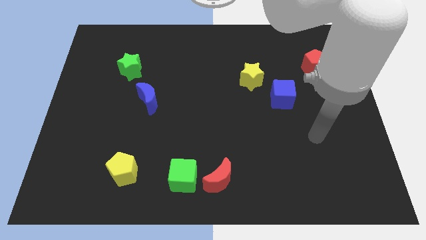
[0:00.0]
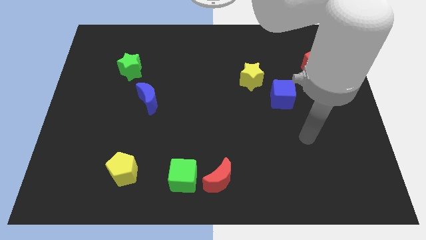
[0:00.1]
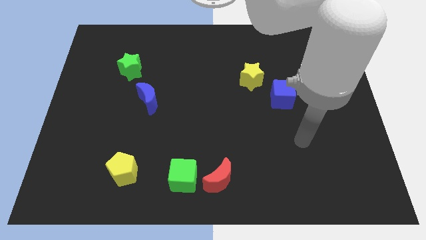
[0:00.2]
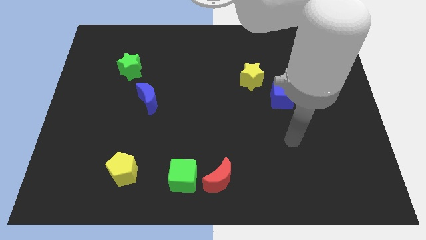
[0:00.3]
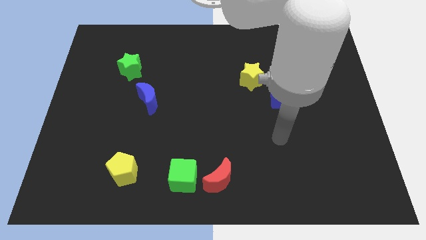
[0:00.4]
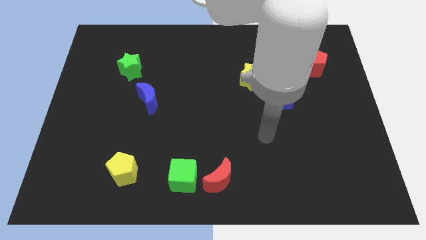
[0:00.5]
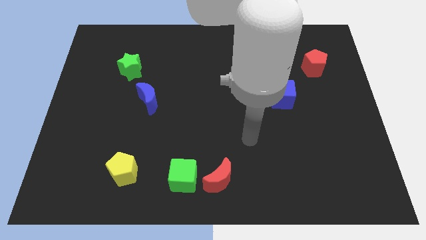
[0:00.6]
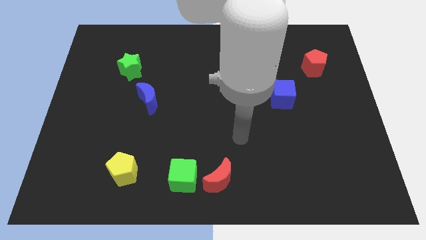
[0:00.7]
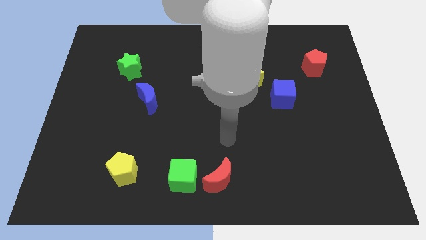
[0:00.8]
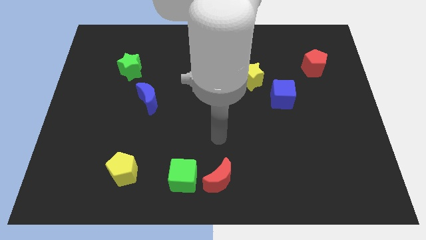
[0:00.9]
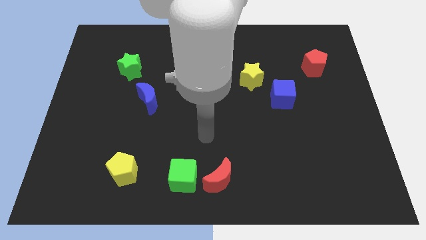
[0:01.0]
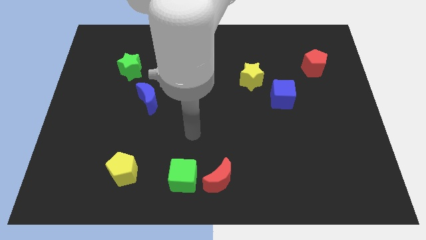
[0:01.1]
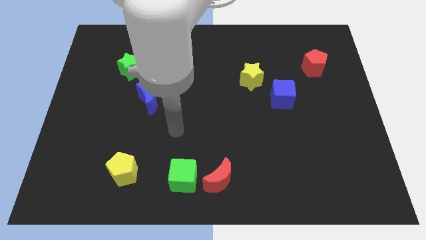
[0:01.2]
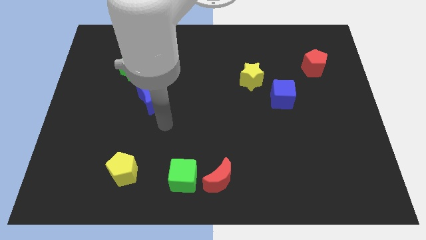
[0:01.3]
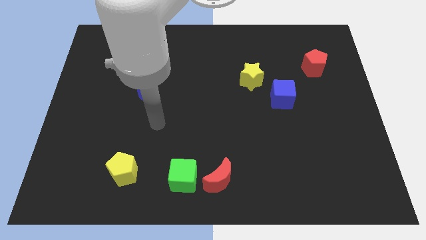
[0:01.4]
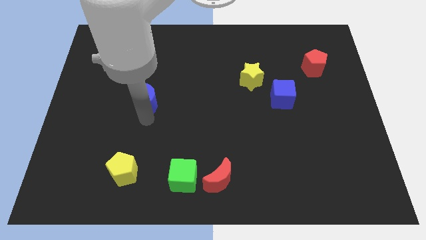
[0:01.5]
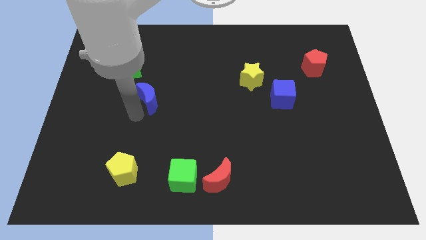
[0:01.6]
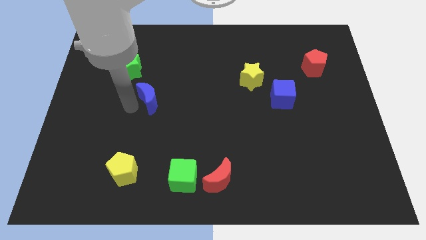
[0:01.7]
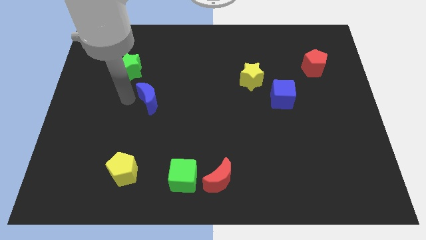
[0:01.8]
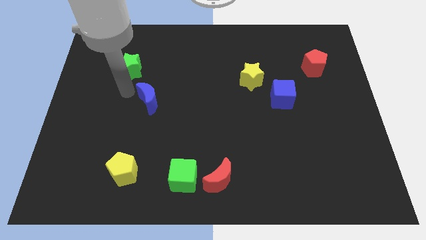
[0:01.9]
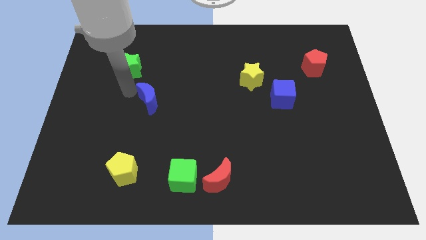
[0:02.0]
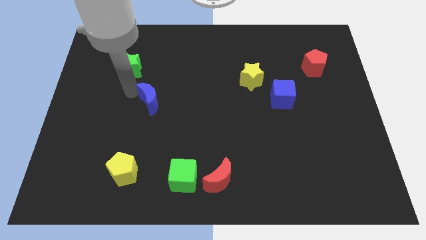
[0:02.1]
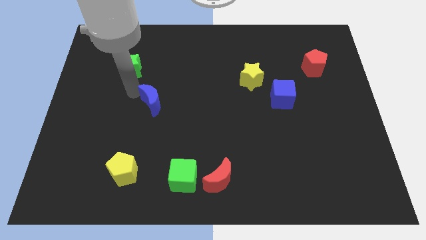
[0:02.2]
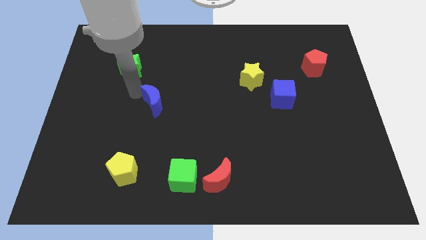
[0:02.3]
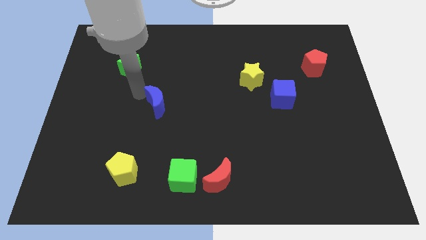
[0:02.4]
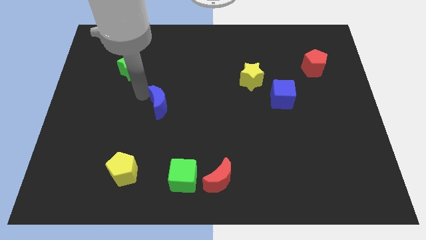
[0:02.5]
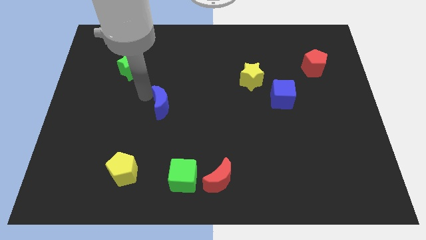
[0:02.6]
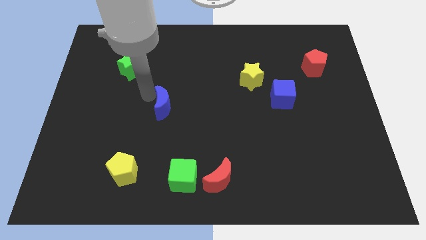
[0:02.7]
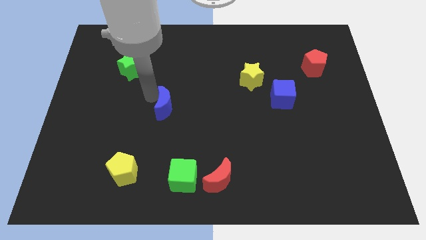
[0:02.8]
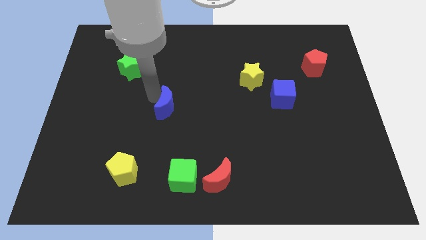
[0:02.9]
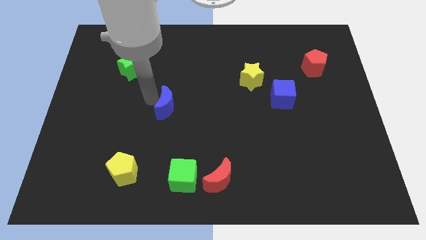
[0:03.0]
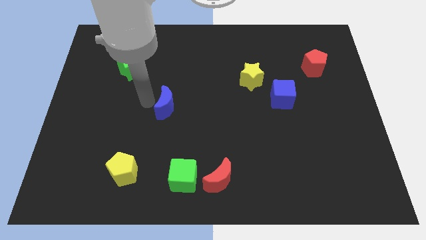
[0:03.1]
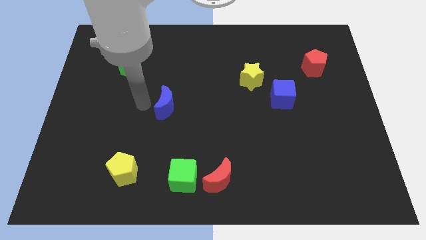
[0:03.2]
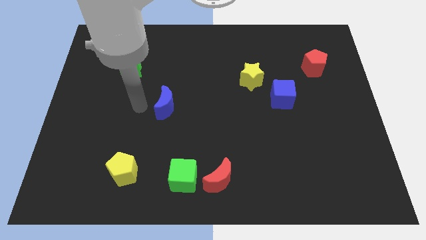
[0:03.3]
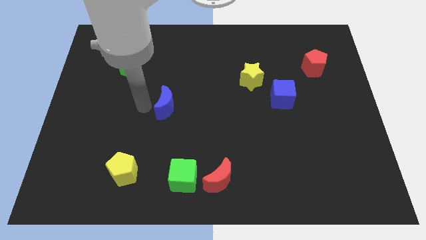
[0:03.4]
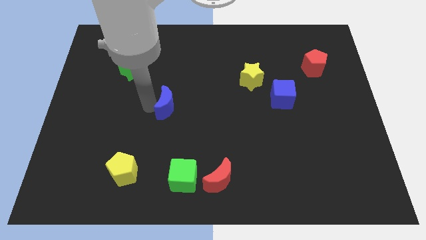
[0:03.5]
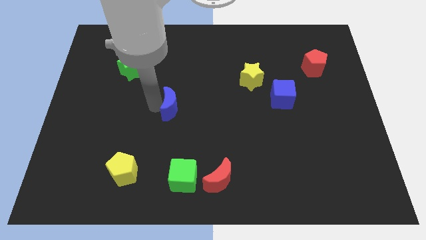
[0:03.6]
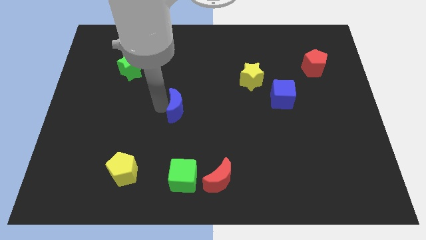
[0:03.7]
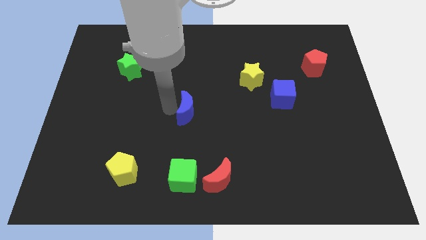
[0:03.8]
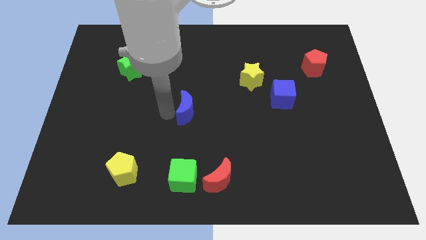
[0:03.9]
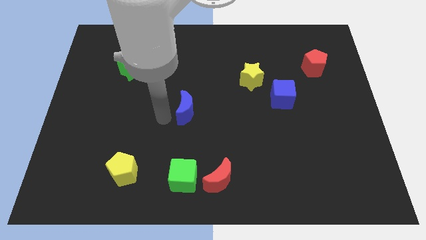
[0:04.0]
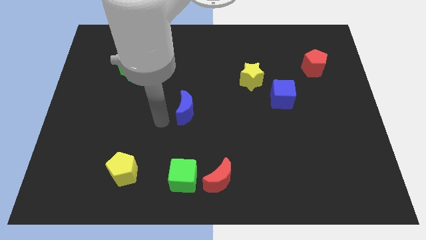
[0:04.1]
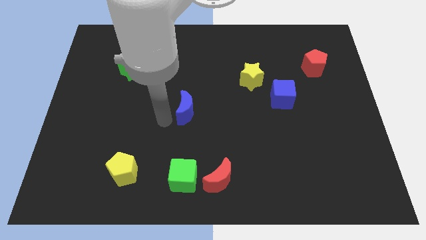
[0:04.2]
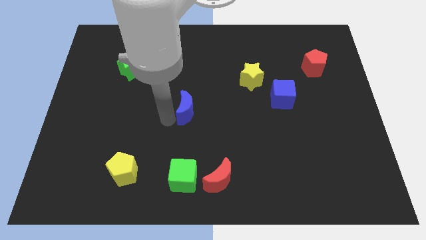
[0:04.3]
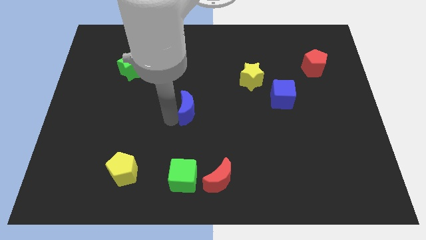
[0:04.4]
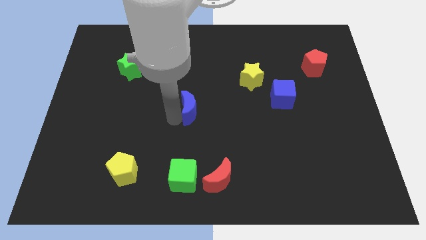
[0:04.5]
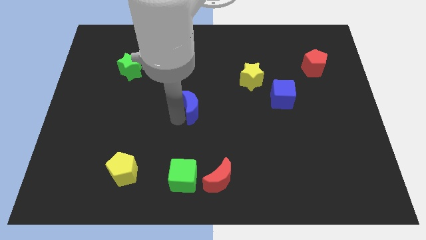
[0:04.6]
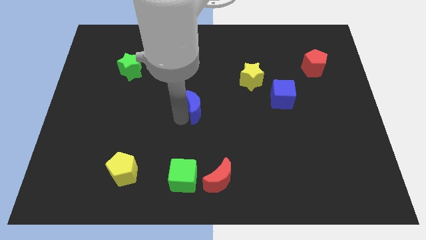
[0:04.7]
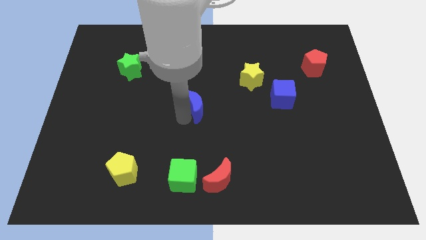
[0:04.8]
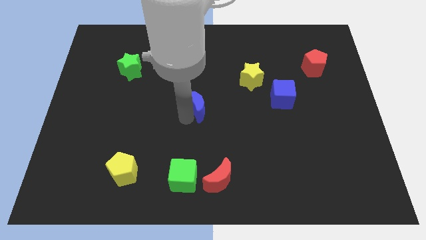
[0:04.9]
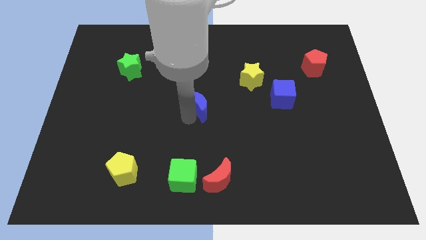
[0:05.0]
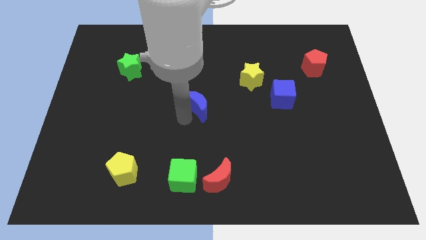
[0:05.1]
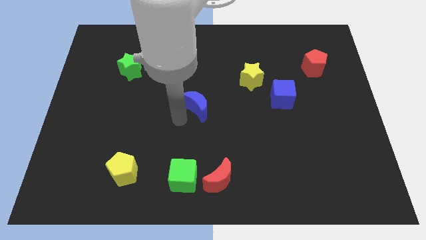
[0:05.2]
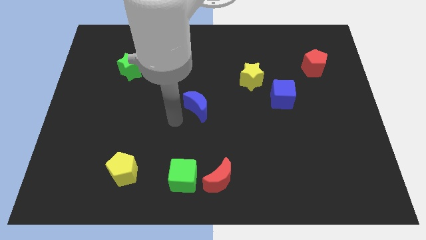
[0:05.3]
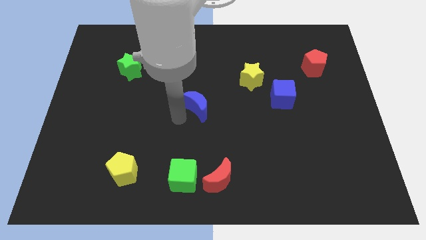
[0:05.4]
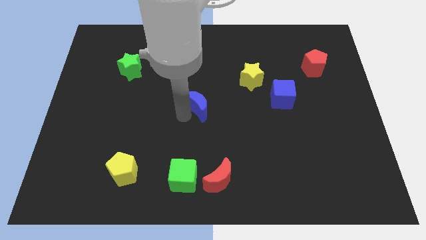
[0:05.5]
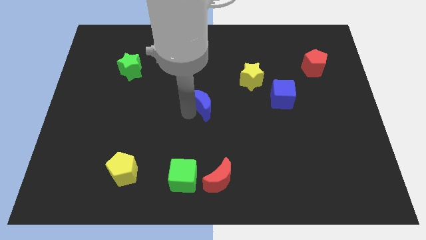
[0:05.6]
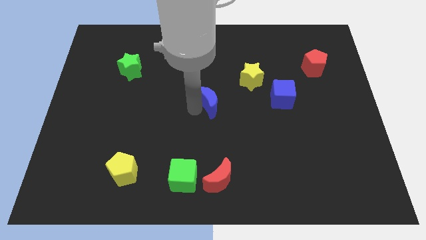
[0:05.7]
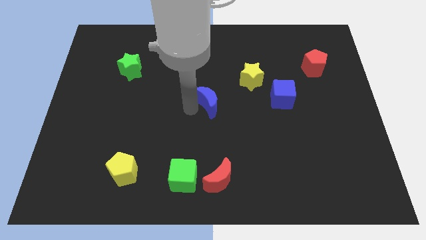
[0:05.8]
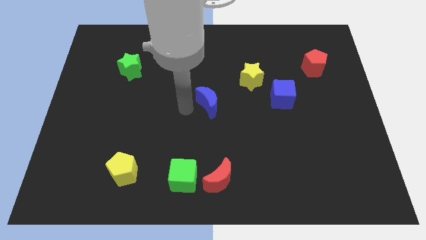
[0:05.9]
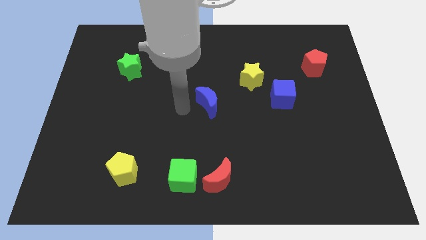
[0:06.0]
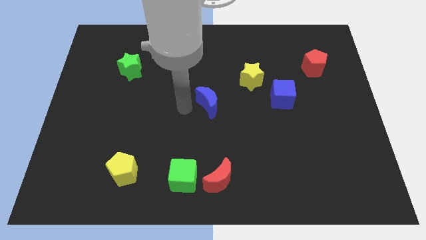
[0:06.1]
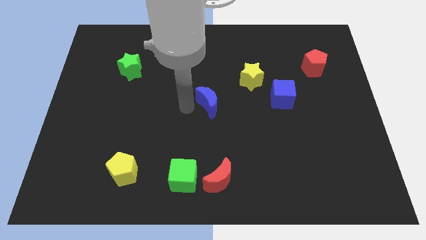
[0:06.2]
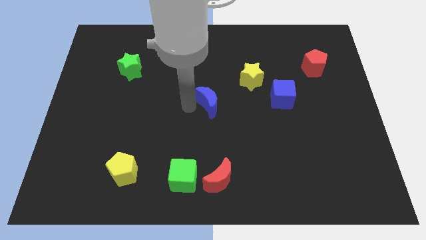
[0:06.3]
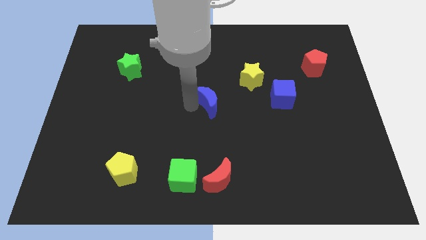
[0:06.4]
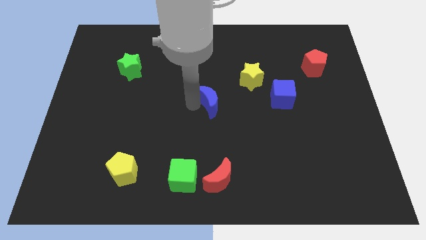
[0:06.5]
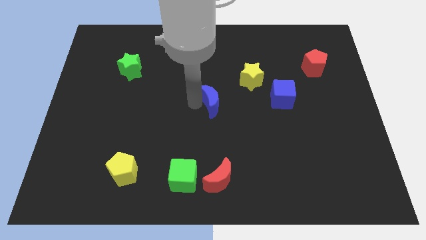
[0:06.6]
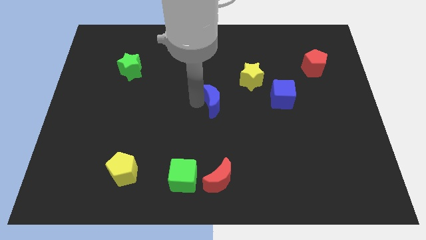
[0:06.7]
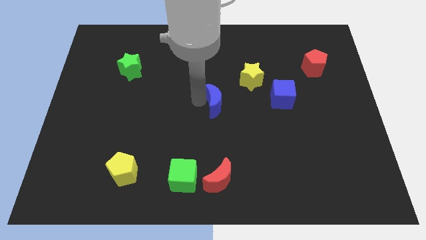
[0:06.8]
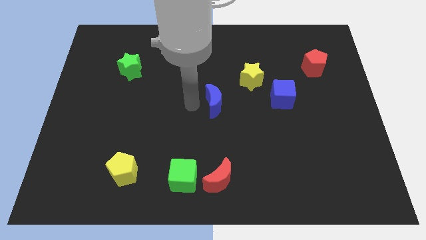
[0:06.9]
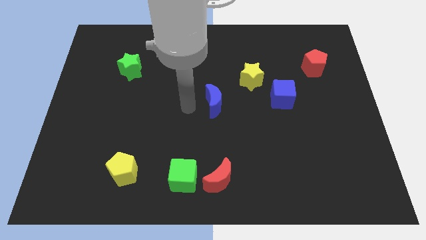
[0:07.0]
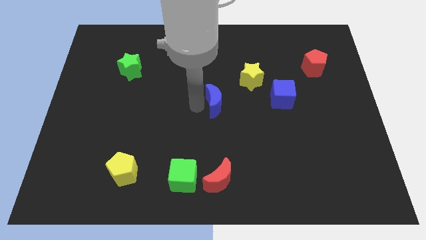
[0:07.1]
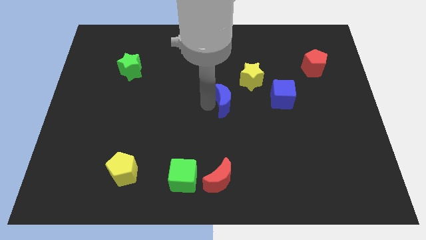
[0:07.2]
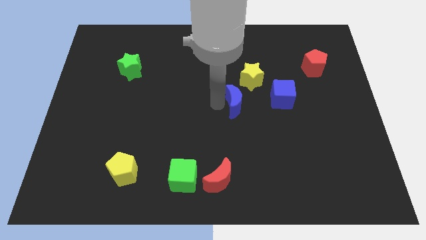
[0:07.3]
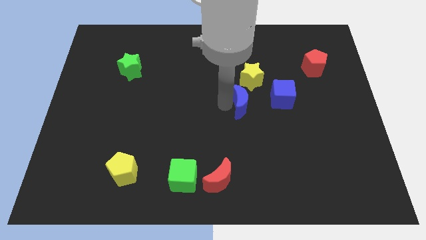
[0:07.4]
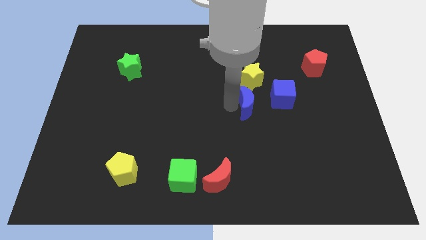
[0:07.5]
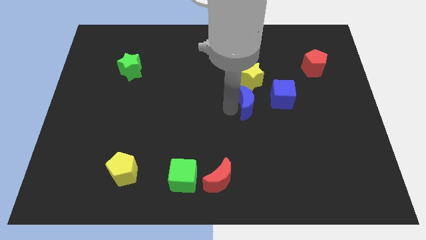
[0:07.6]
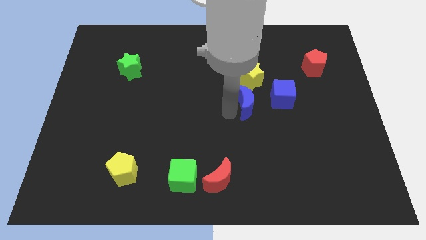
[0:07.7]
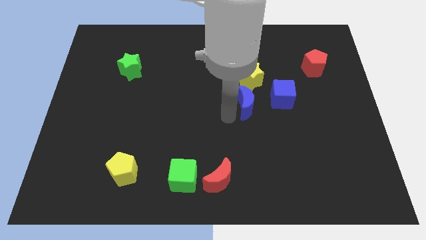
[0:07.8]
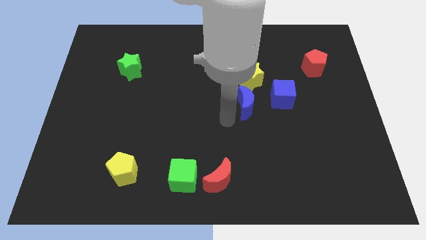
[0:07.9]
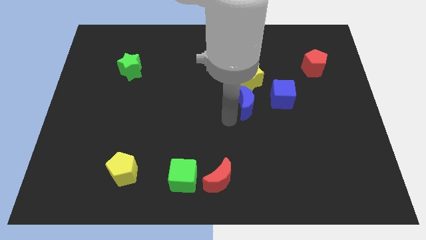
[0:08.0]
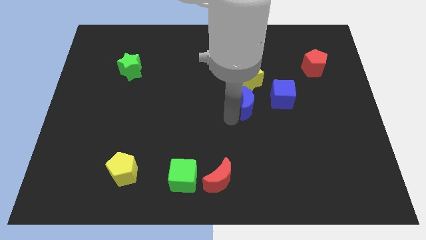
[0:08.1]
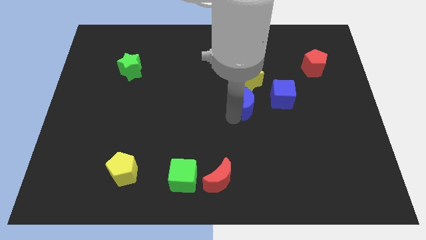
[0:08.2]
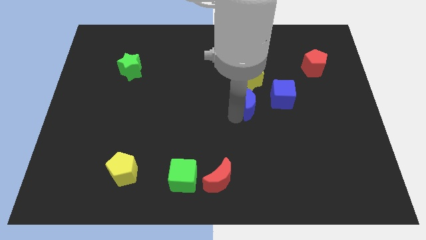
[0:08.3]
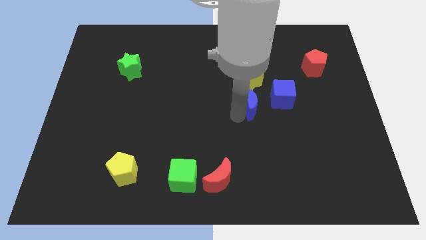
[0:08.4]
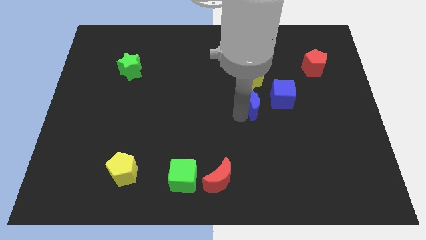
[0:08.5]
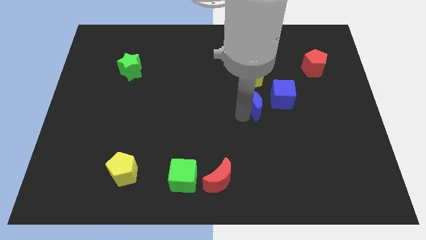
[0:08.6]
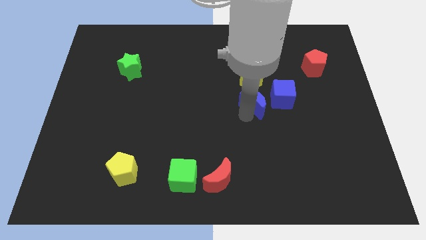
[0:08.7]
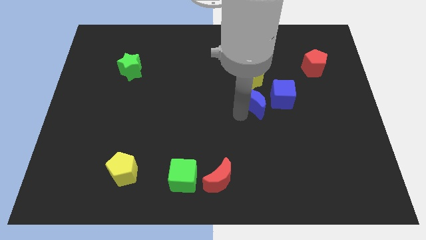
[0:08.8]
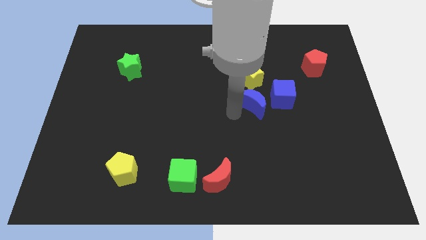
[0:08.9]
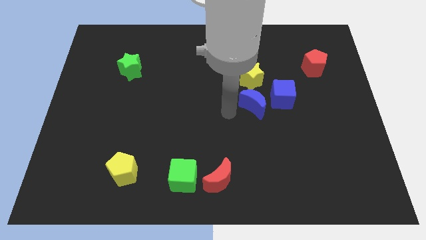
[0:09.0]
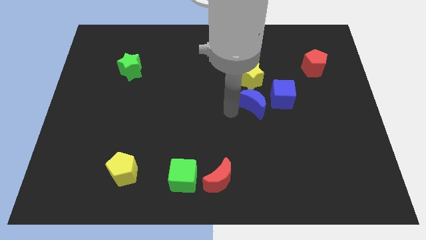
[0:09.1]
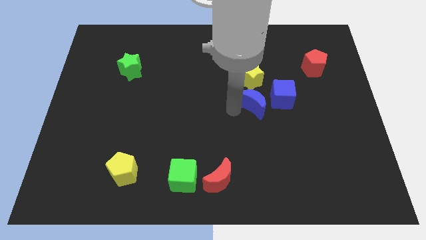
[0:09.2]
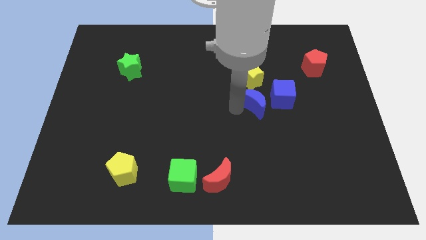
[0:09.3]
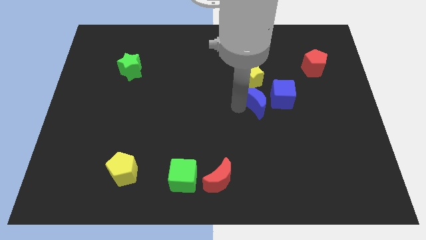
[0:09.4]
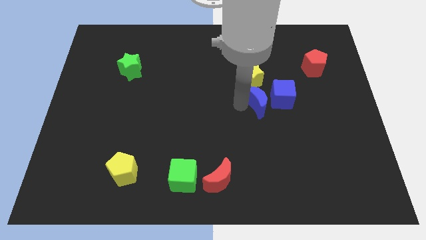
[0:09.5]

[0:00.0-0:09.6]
move the blue moon towards the blue cube
